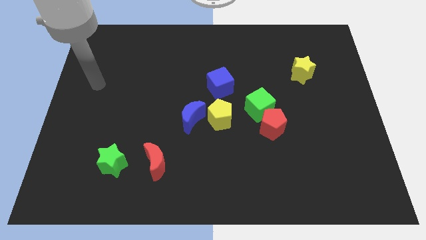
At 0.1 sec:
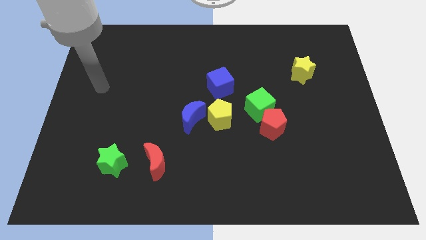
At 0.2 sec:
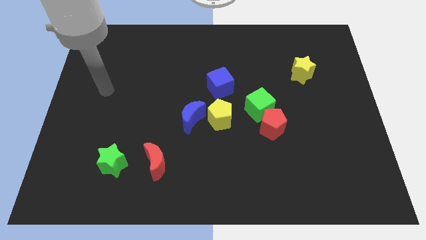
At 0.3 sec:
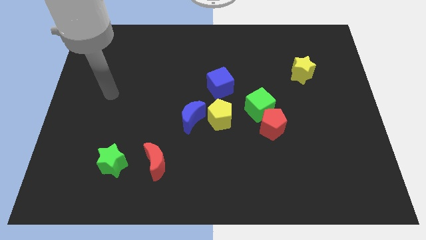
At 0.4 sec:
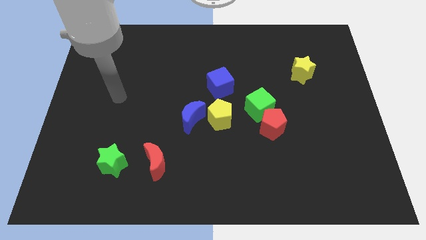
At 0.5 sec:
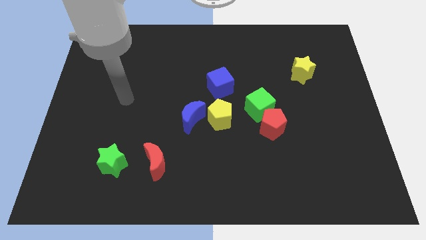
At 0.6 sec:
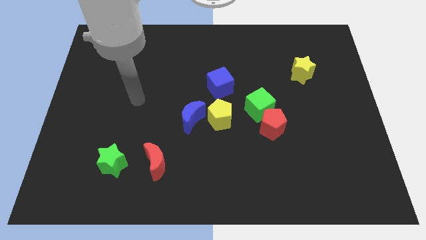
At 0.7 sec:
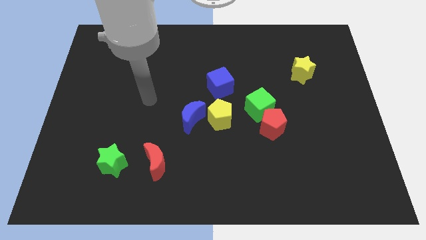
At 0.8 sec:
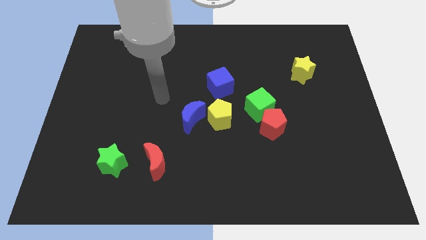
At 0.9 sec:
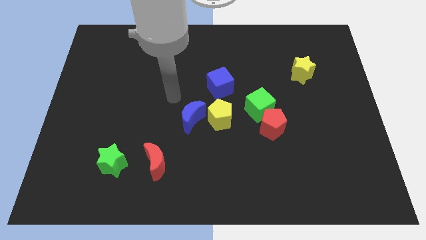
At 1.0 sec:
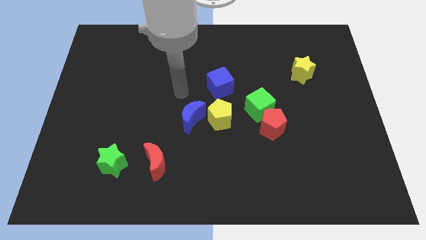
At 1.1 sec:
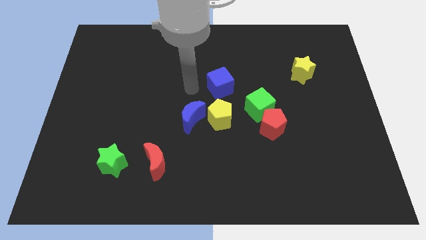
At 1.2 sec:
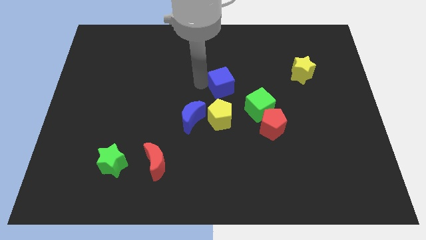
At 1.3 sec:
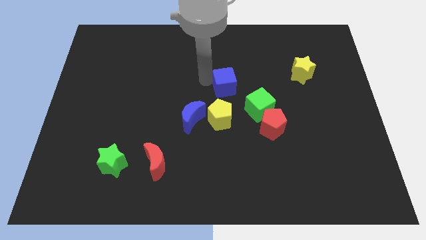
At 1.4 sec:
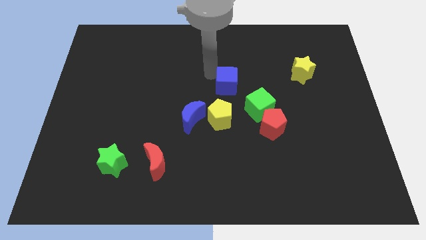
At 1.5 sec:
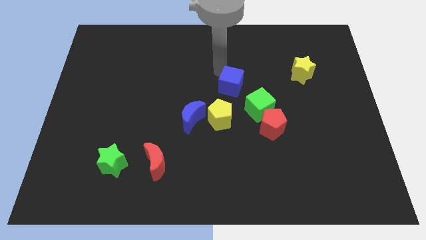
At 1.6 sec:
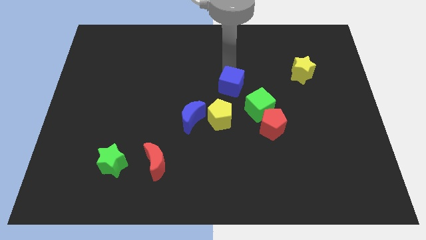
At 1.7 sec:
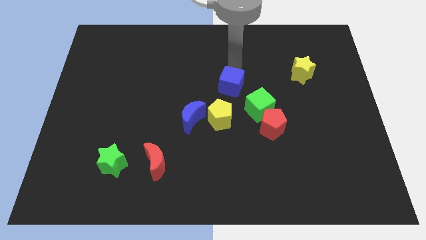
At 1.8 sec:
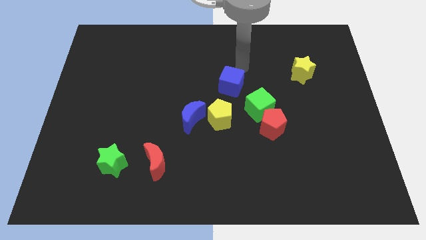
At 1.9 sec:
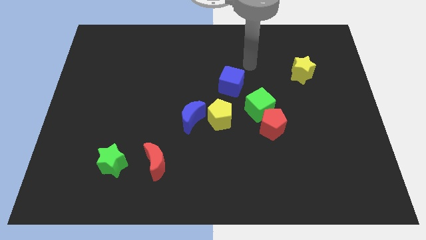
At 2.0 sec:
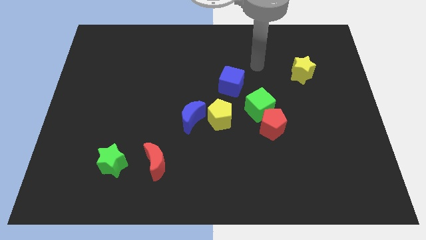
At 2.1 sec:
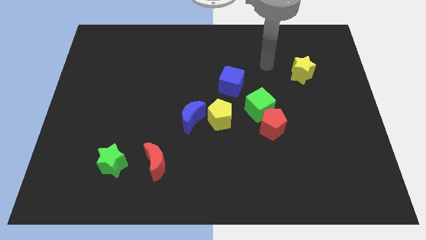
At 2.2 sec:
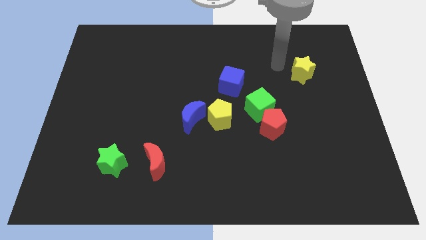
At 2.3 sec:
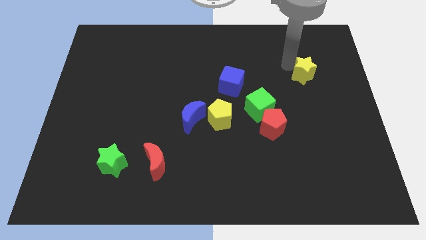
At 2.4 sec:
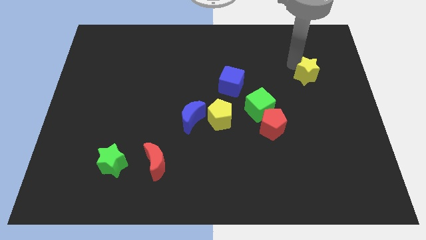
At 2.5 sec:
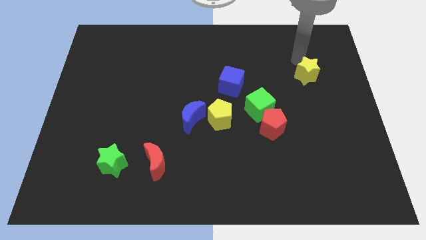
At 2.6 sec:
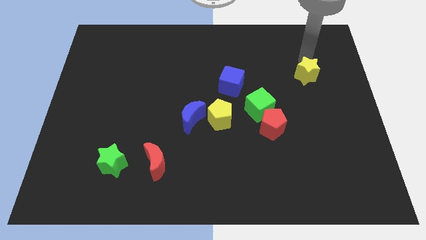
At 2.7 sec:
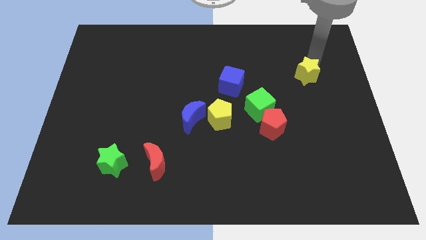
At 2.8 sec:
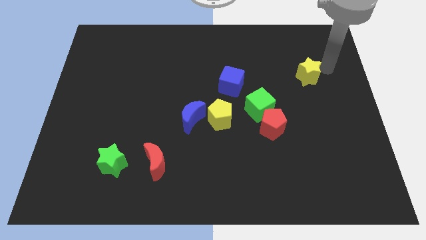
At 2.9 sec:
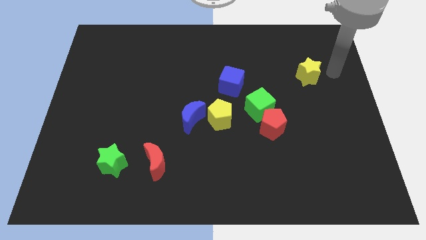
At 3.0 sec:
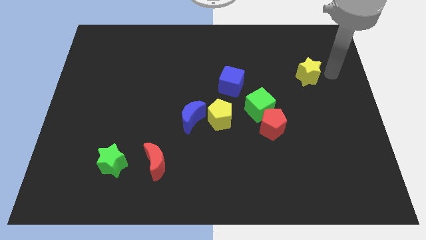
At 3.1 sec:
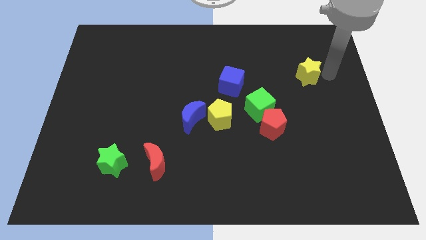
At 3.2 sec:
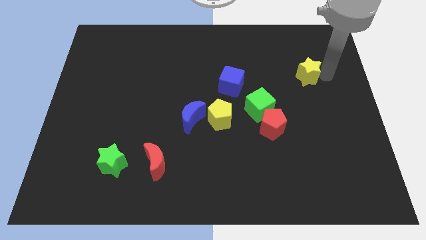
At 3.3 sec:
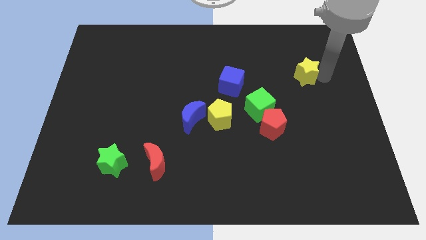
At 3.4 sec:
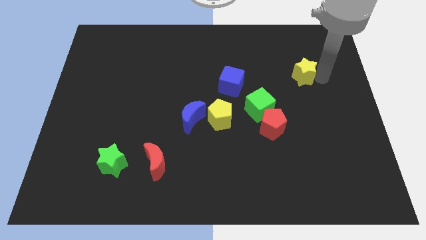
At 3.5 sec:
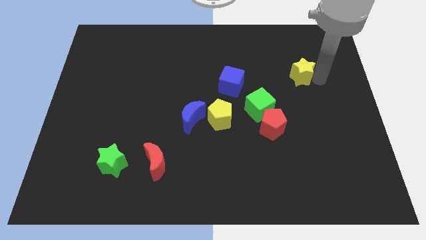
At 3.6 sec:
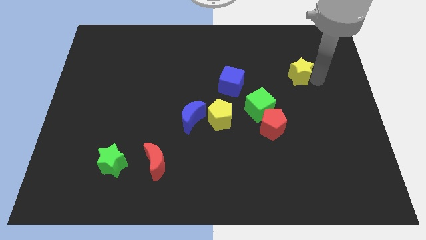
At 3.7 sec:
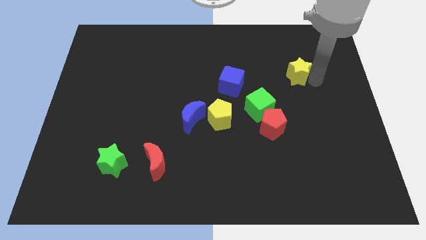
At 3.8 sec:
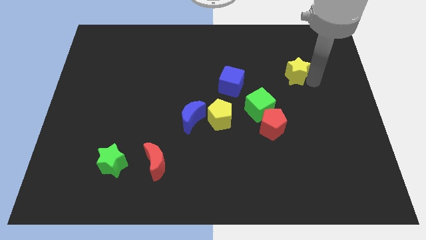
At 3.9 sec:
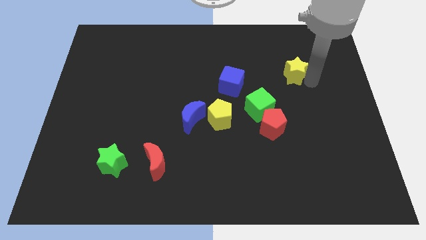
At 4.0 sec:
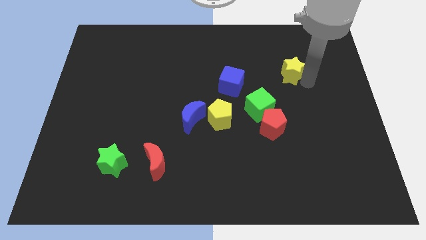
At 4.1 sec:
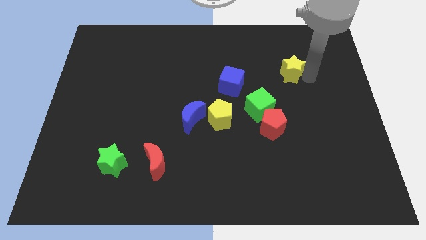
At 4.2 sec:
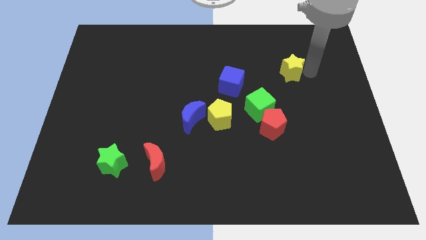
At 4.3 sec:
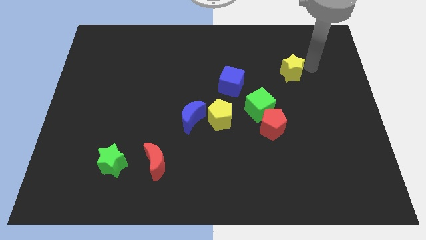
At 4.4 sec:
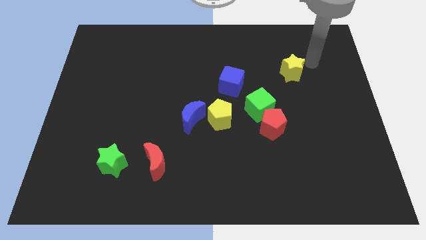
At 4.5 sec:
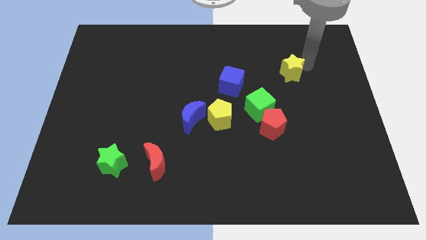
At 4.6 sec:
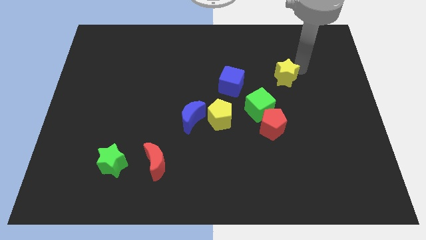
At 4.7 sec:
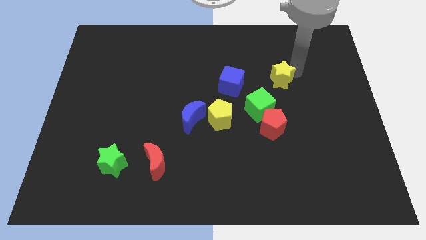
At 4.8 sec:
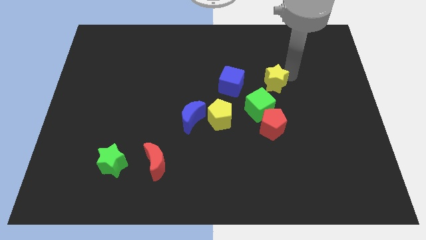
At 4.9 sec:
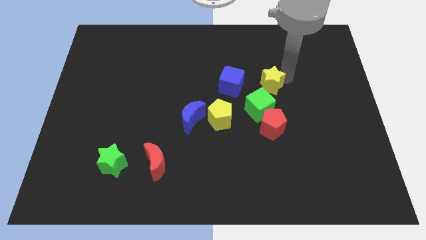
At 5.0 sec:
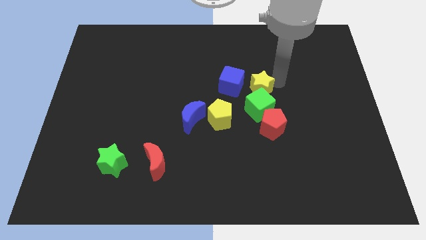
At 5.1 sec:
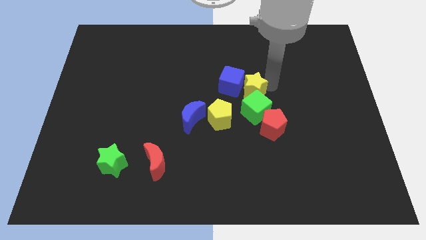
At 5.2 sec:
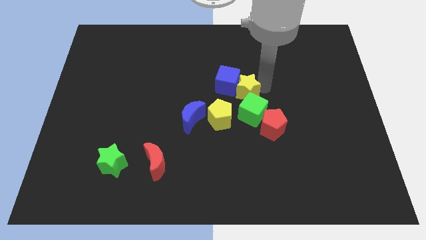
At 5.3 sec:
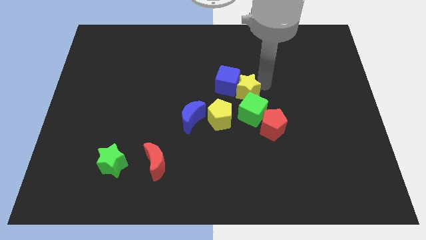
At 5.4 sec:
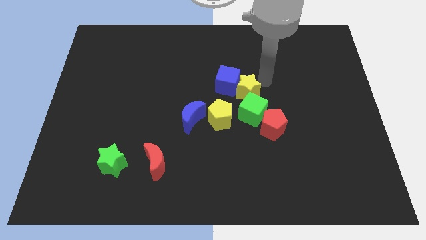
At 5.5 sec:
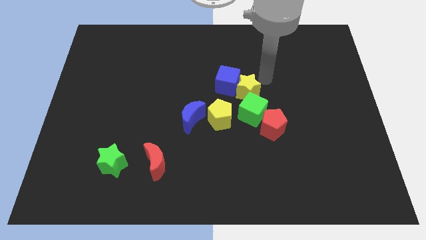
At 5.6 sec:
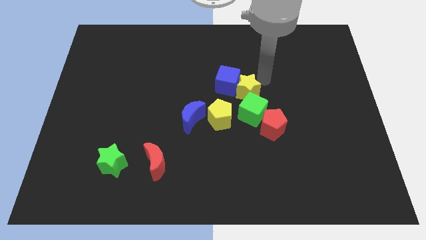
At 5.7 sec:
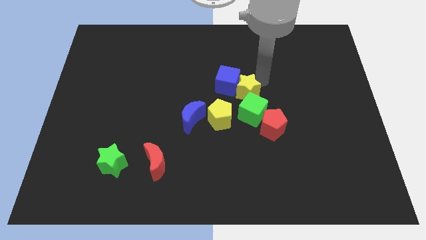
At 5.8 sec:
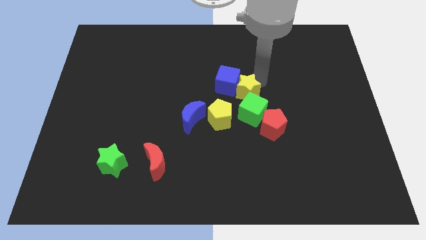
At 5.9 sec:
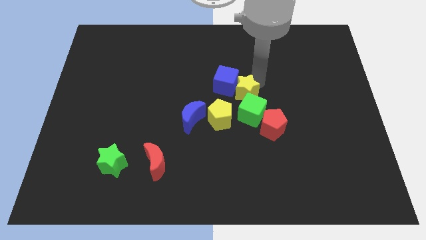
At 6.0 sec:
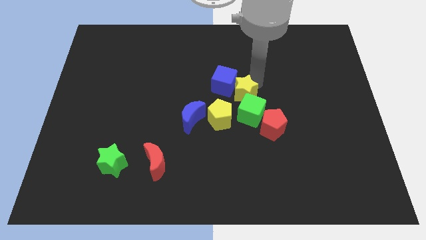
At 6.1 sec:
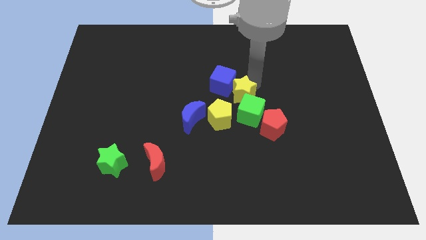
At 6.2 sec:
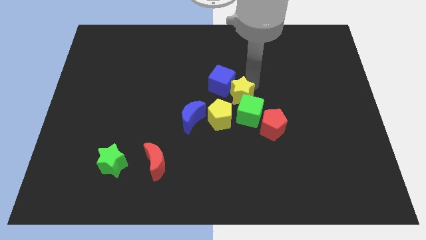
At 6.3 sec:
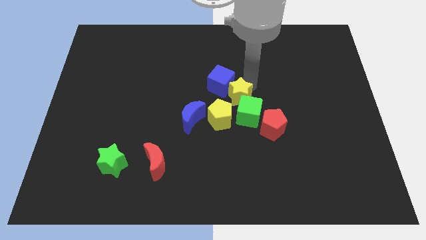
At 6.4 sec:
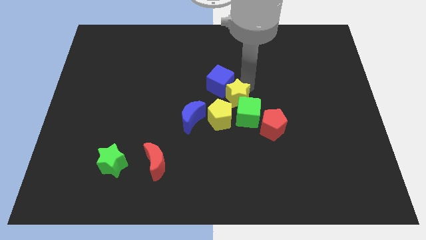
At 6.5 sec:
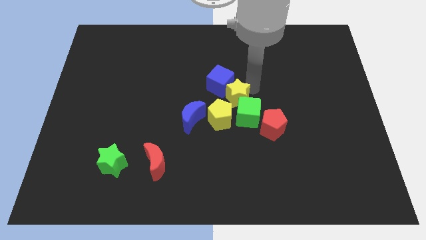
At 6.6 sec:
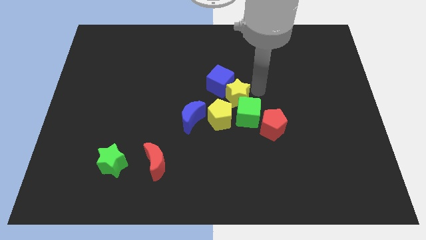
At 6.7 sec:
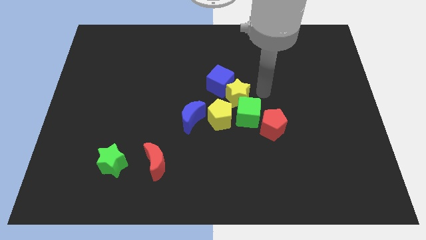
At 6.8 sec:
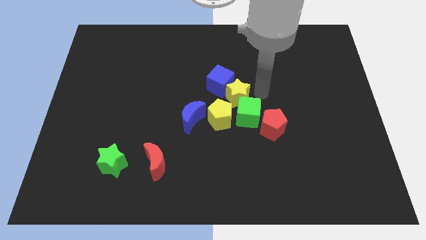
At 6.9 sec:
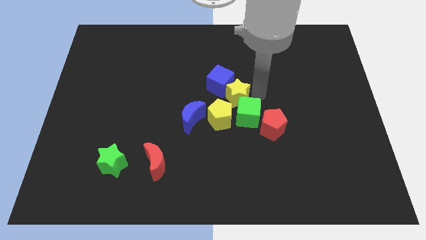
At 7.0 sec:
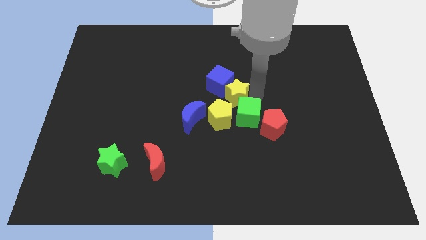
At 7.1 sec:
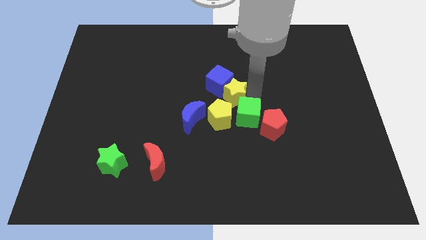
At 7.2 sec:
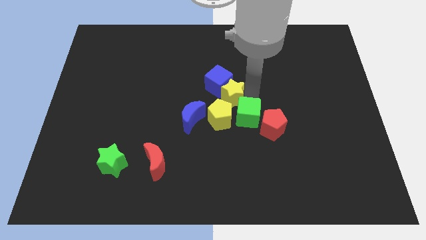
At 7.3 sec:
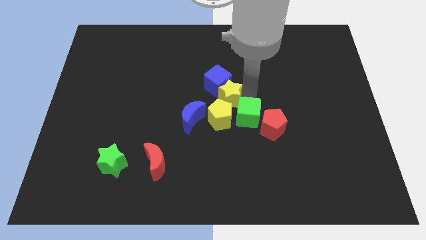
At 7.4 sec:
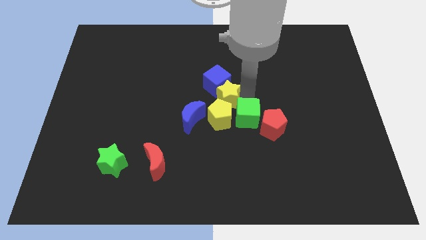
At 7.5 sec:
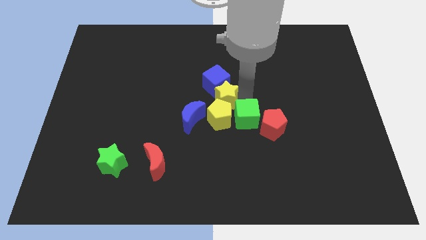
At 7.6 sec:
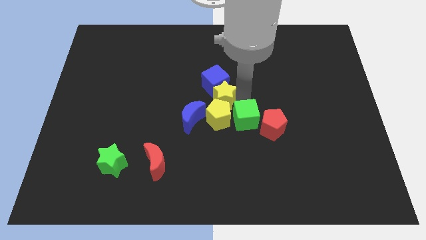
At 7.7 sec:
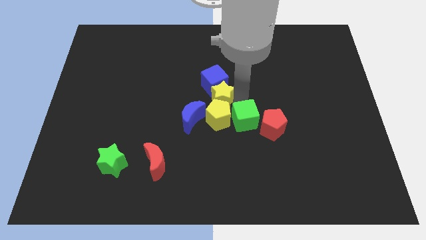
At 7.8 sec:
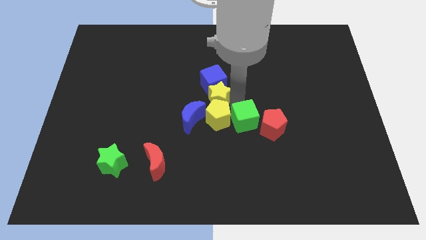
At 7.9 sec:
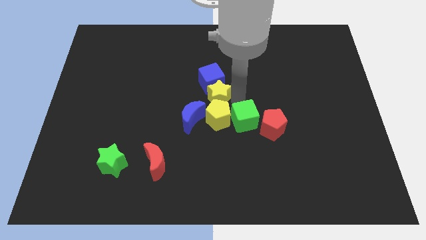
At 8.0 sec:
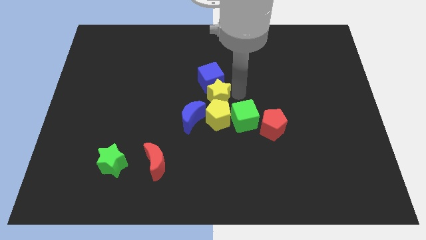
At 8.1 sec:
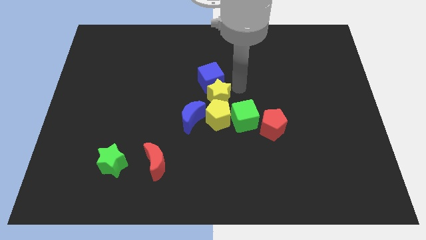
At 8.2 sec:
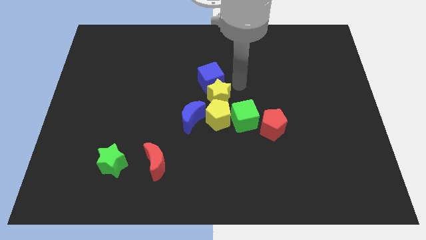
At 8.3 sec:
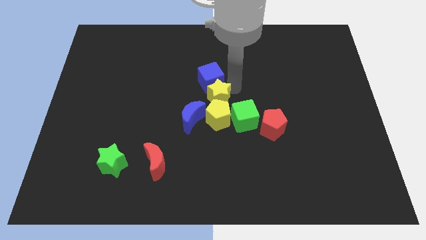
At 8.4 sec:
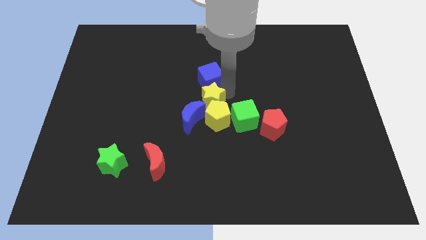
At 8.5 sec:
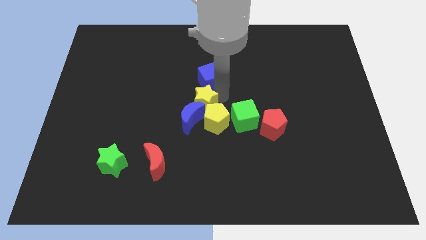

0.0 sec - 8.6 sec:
push the yellow star next to the blue moon
